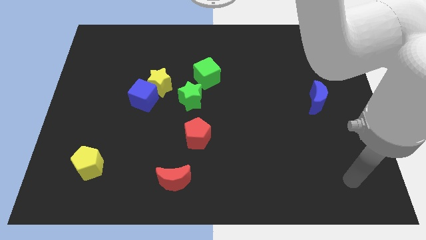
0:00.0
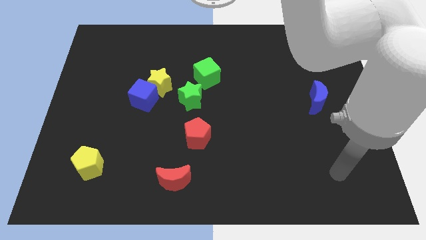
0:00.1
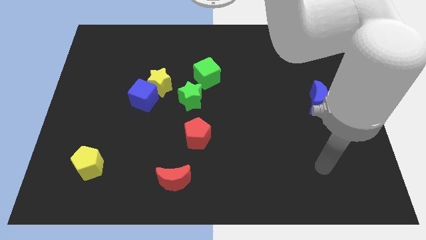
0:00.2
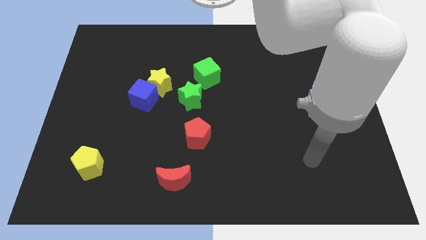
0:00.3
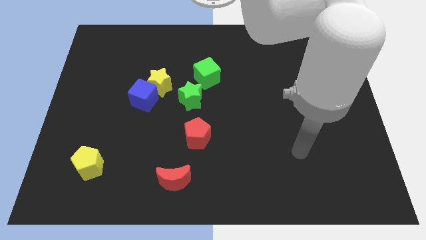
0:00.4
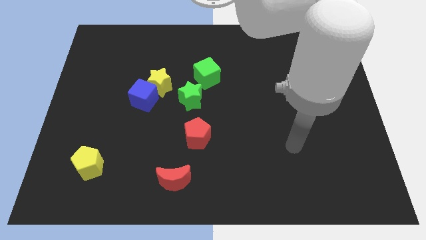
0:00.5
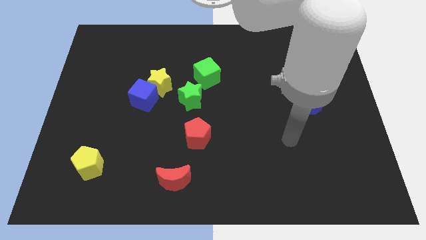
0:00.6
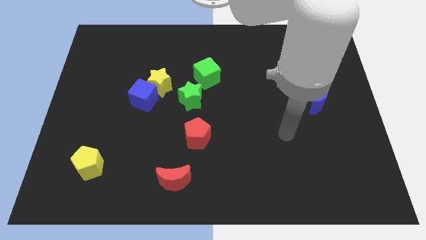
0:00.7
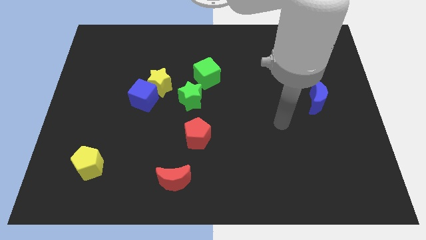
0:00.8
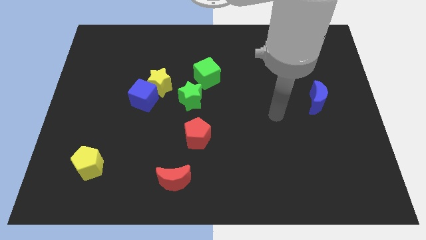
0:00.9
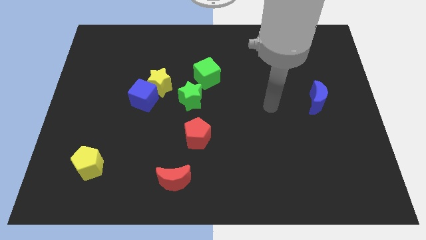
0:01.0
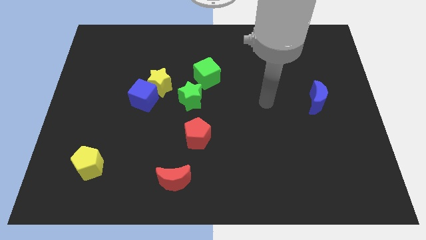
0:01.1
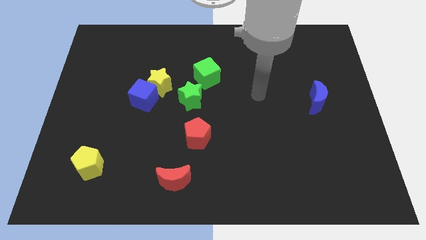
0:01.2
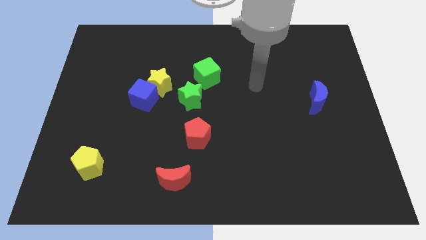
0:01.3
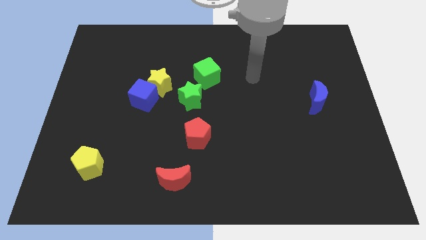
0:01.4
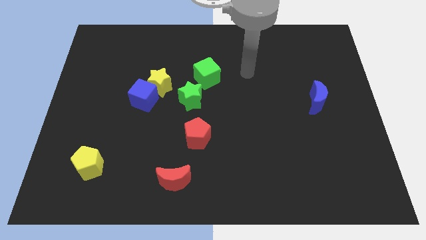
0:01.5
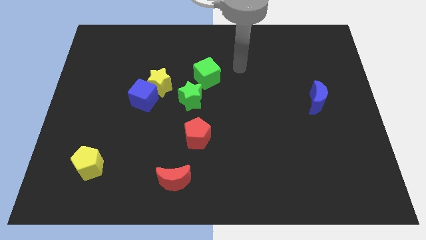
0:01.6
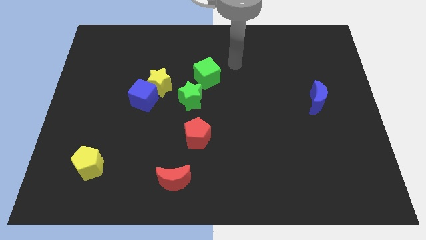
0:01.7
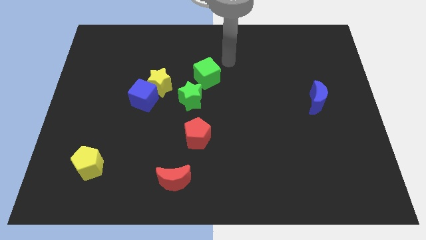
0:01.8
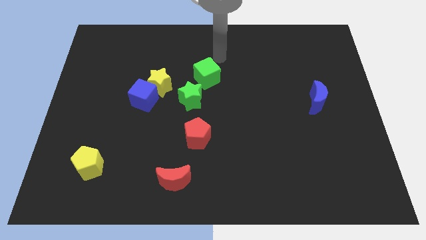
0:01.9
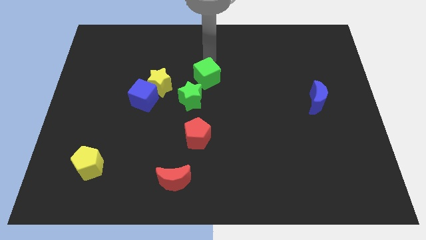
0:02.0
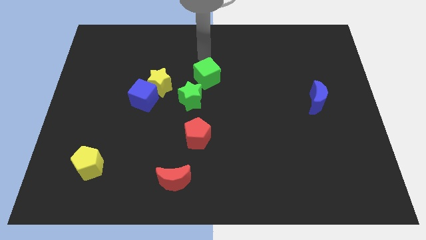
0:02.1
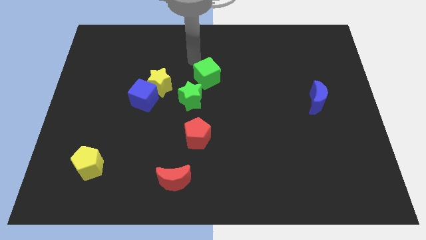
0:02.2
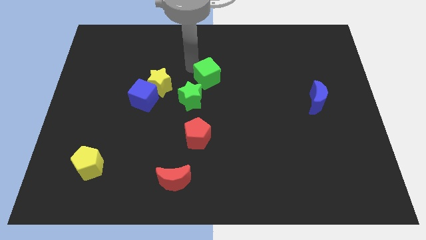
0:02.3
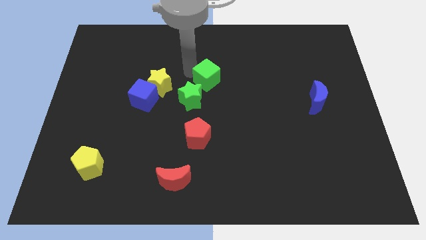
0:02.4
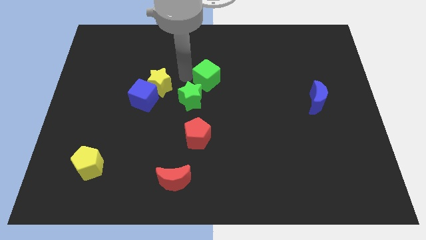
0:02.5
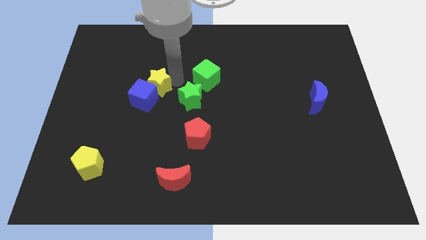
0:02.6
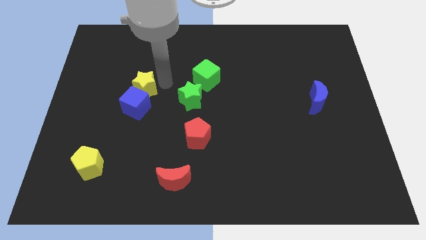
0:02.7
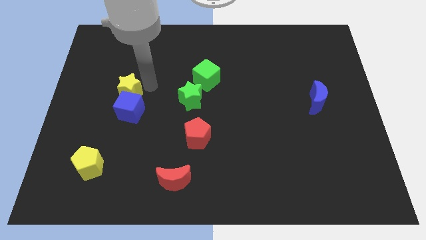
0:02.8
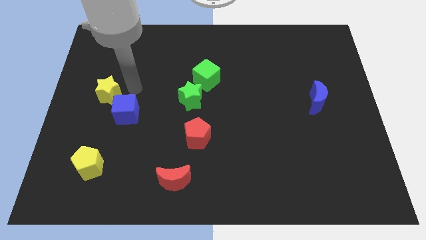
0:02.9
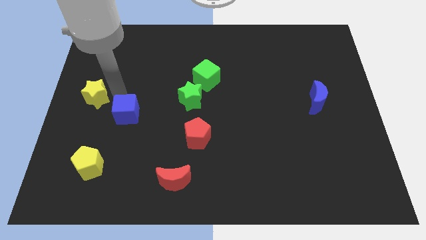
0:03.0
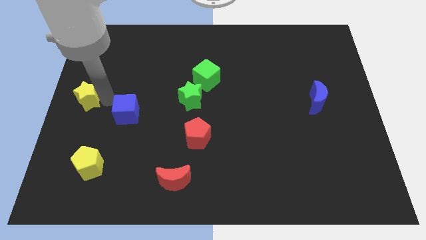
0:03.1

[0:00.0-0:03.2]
separate the blue cube from the yellow star

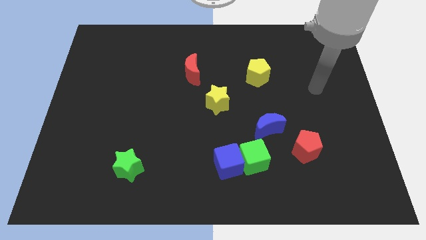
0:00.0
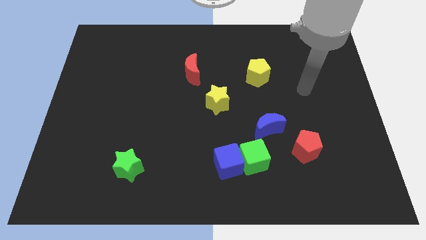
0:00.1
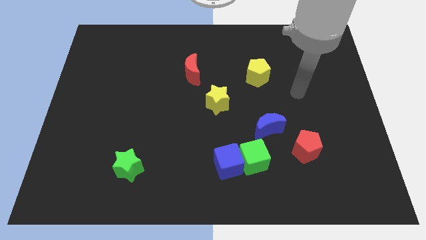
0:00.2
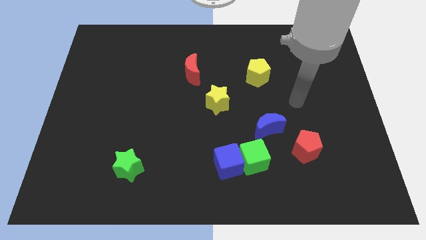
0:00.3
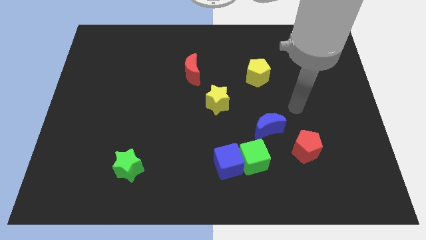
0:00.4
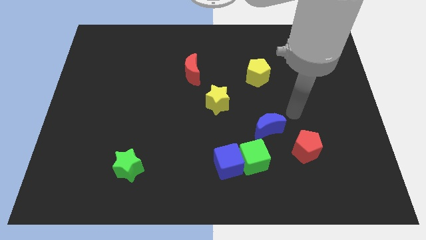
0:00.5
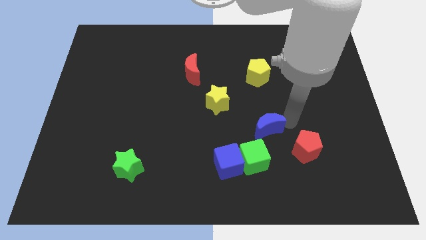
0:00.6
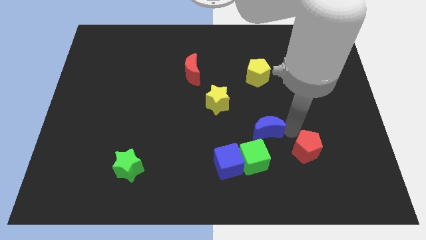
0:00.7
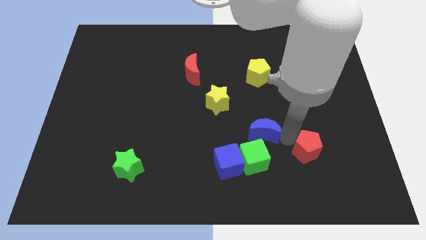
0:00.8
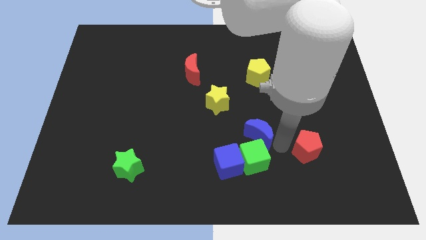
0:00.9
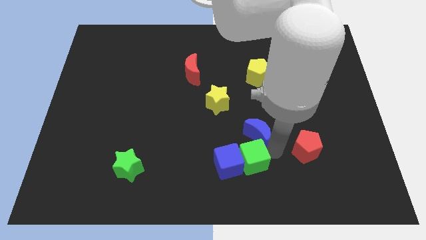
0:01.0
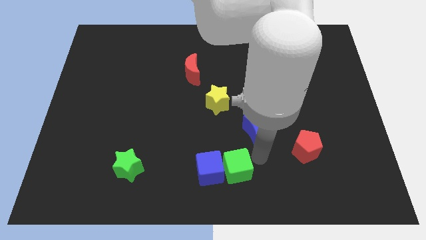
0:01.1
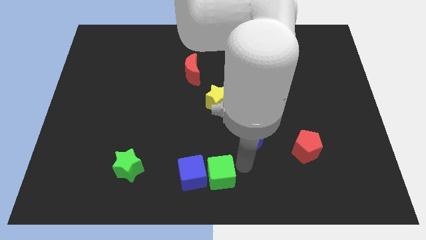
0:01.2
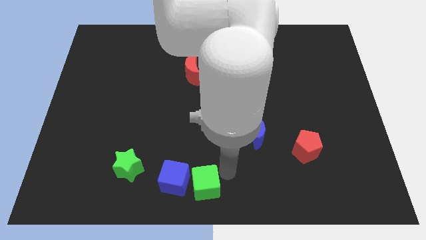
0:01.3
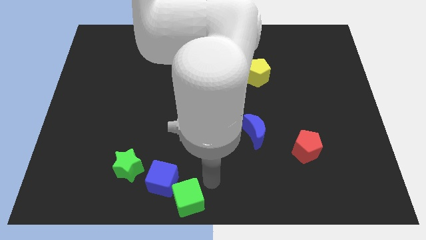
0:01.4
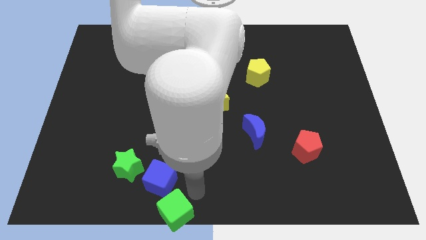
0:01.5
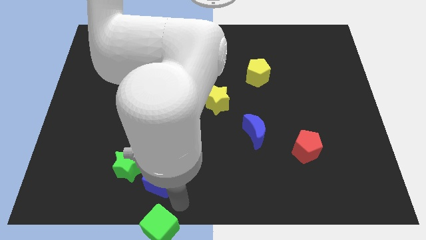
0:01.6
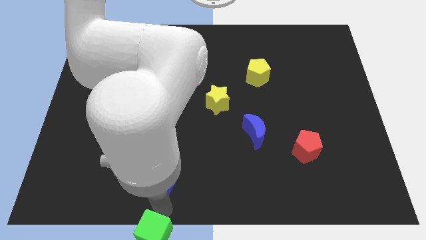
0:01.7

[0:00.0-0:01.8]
pull the blue cube apart from the green cube

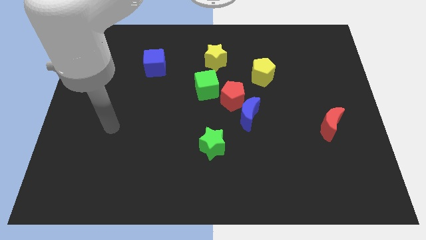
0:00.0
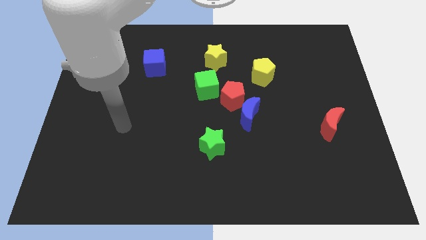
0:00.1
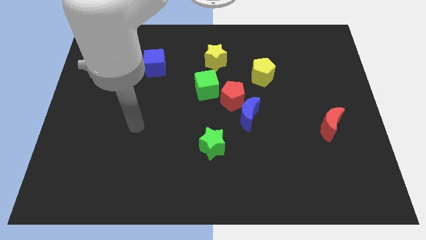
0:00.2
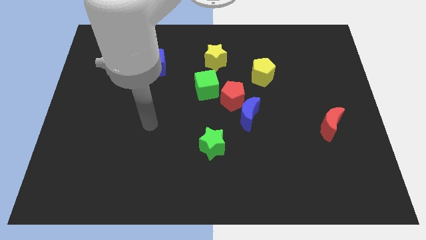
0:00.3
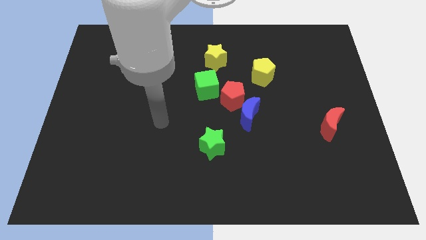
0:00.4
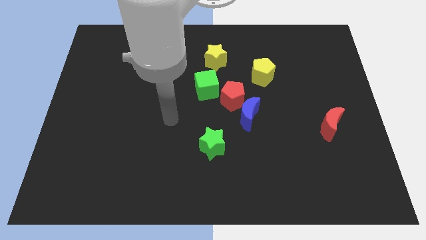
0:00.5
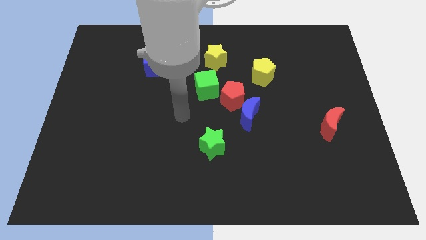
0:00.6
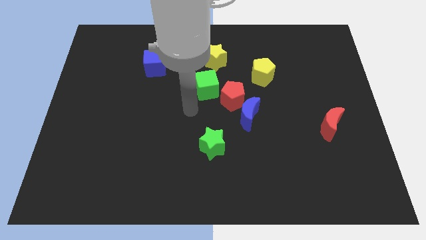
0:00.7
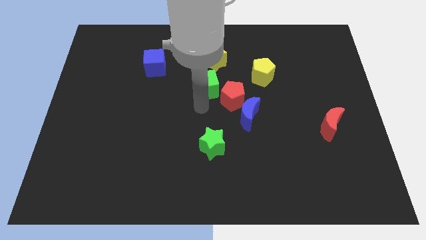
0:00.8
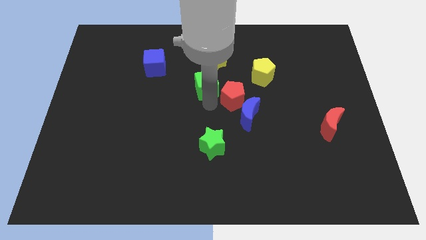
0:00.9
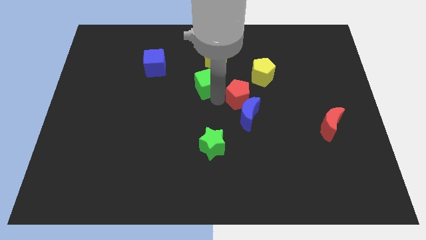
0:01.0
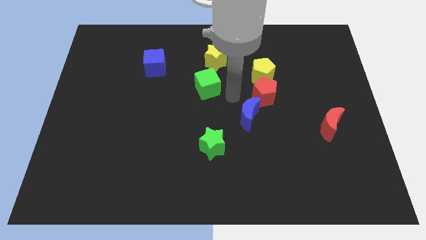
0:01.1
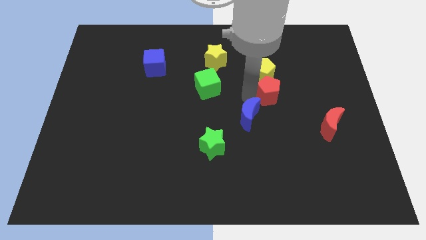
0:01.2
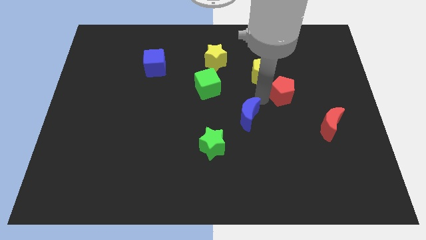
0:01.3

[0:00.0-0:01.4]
move the blue moon away from the red pentagon

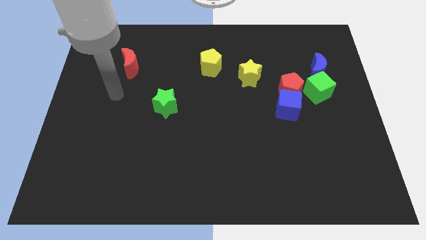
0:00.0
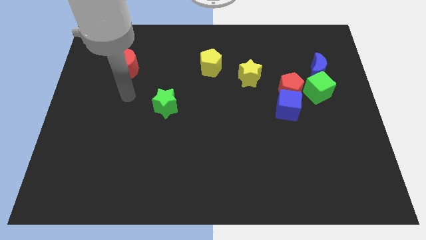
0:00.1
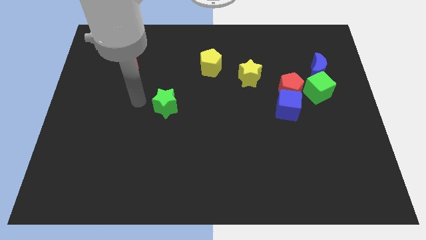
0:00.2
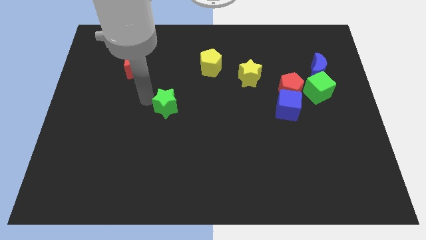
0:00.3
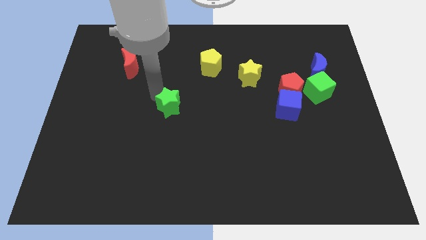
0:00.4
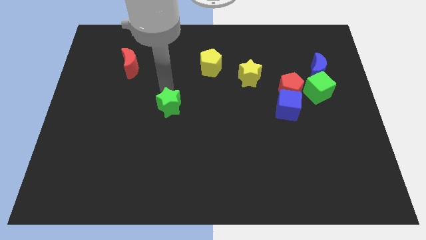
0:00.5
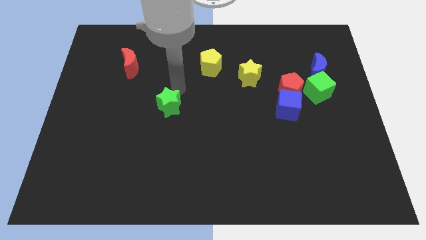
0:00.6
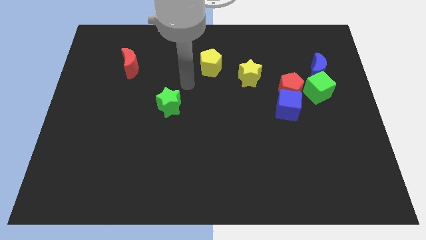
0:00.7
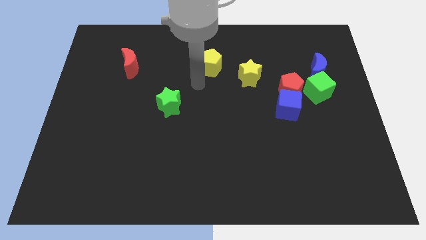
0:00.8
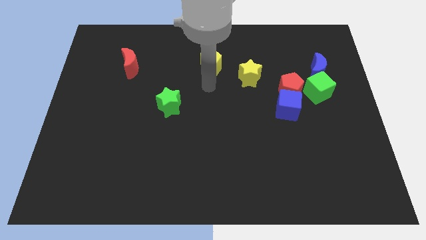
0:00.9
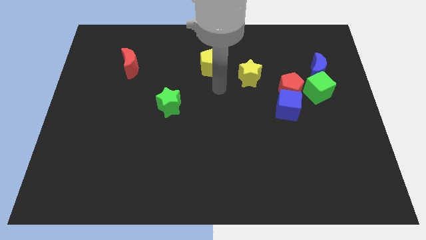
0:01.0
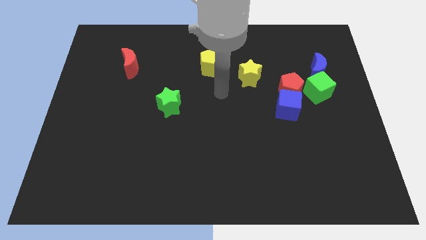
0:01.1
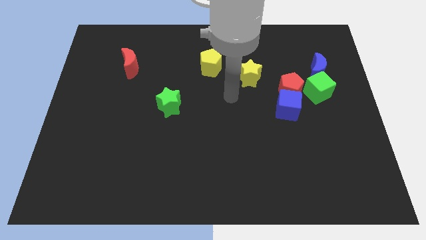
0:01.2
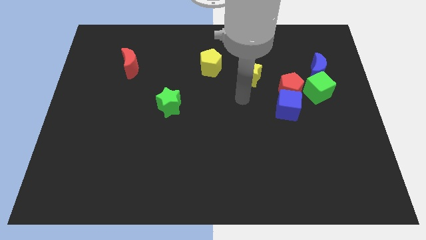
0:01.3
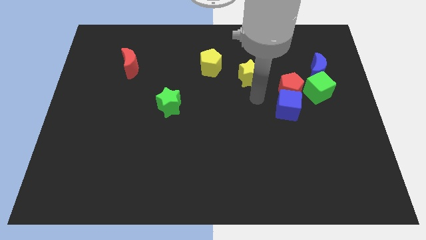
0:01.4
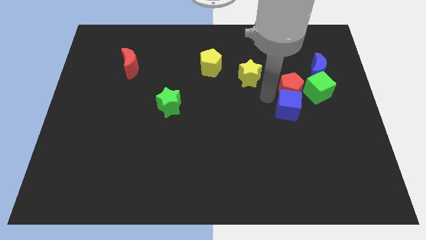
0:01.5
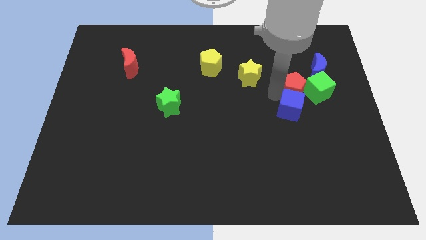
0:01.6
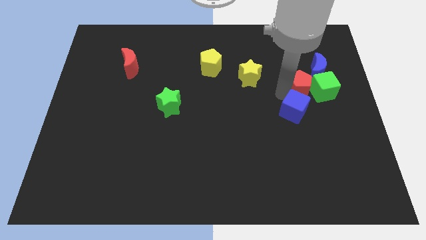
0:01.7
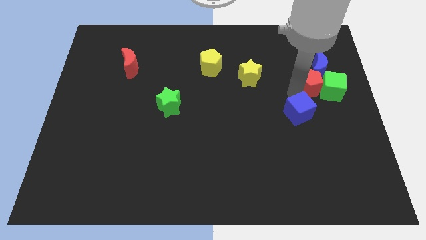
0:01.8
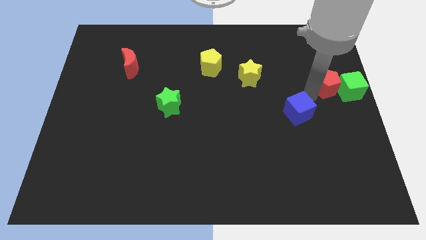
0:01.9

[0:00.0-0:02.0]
separate the blue cube from the red pentagon and green cube

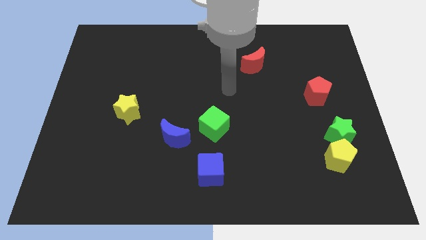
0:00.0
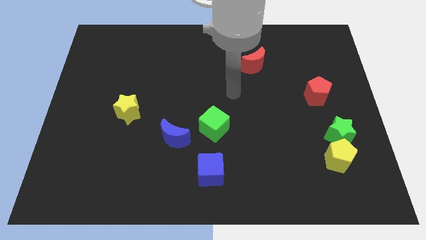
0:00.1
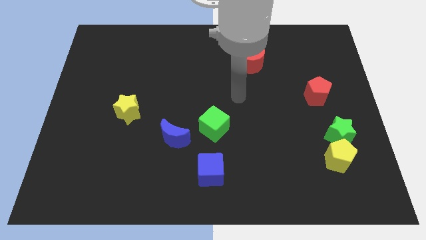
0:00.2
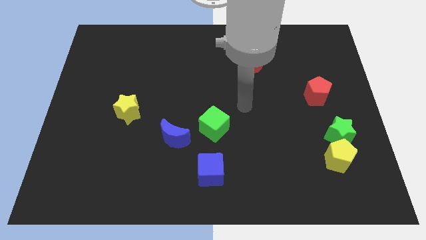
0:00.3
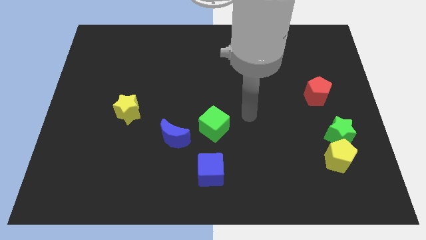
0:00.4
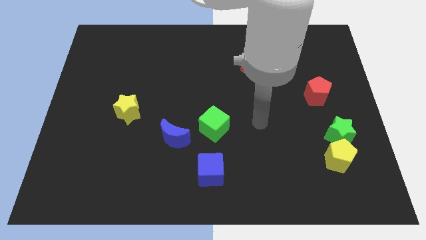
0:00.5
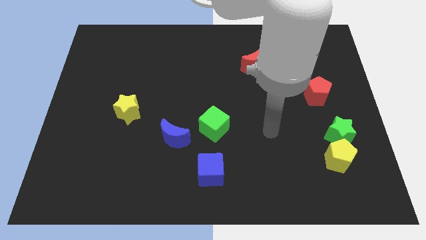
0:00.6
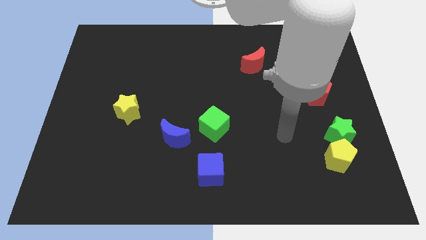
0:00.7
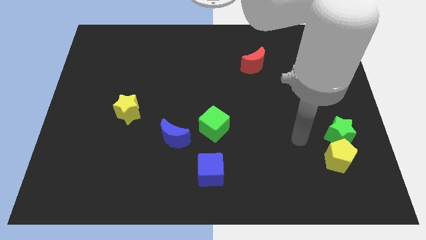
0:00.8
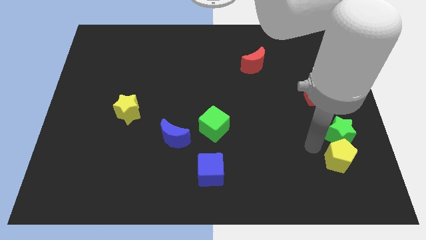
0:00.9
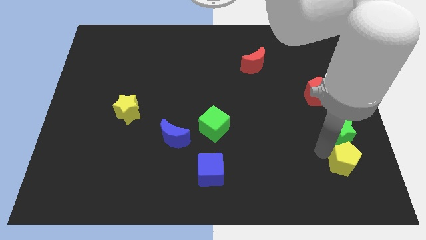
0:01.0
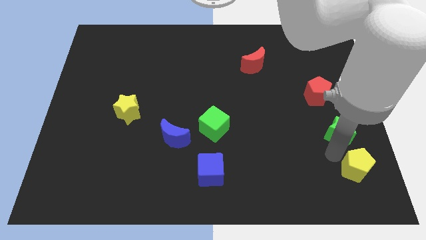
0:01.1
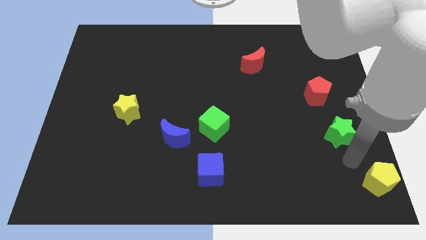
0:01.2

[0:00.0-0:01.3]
pull the green star apart from the yellow pentagon
